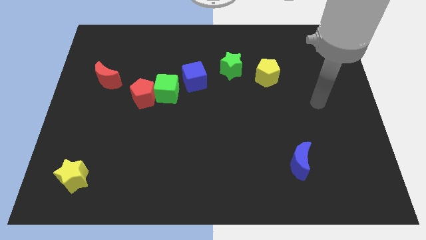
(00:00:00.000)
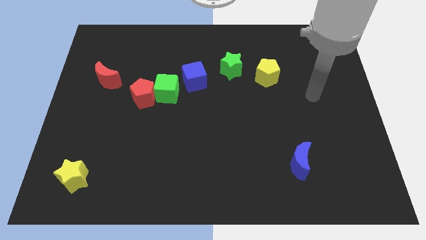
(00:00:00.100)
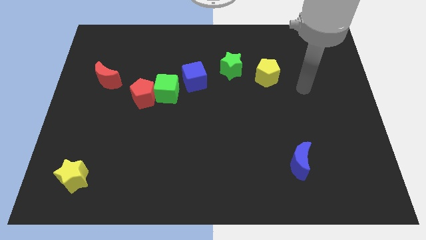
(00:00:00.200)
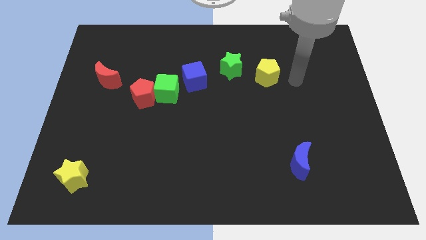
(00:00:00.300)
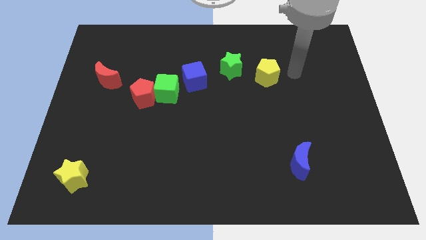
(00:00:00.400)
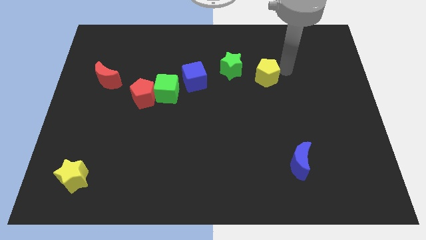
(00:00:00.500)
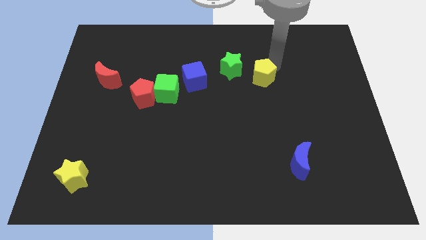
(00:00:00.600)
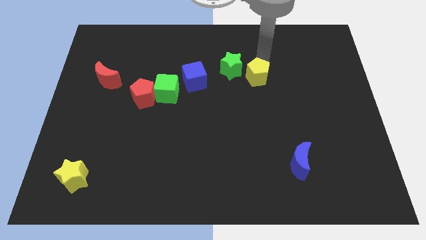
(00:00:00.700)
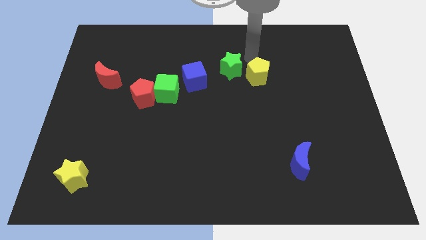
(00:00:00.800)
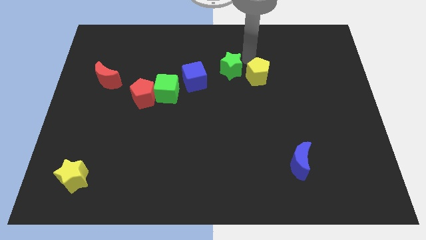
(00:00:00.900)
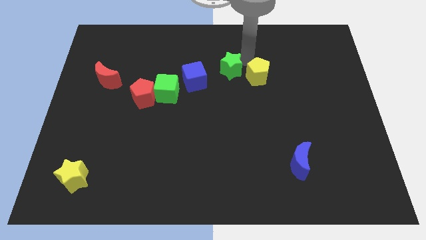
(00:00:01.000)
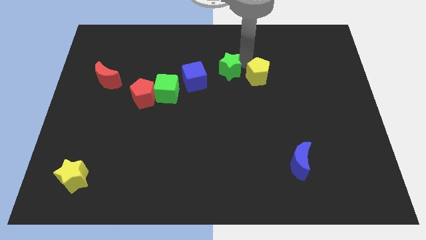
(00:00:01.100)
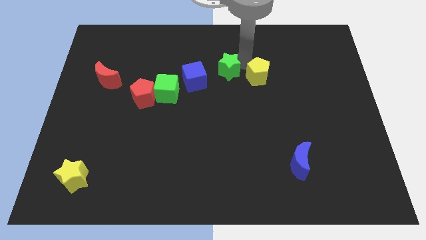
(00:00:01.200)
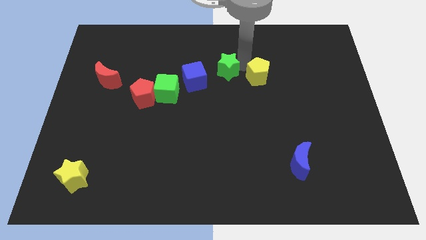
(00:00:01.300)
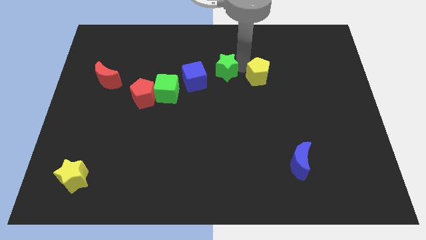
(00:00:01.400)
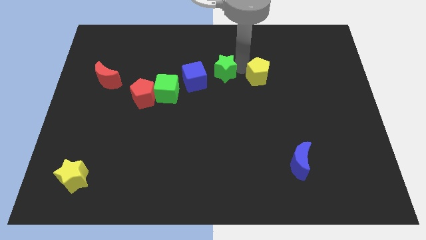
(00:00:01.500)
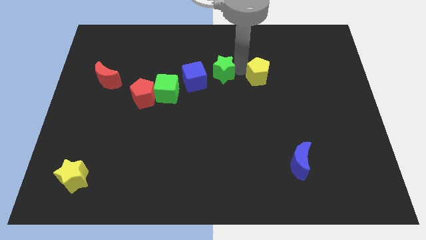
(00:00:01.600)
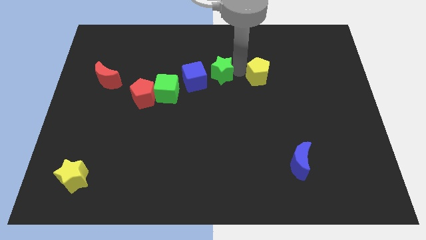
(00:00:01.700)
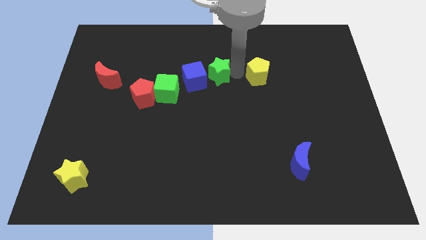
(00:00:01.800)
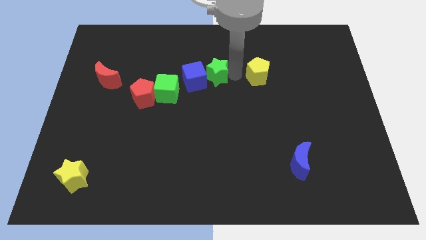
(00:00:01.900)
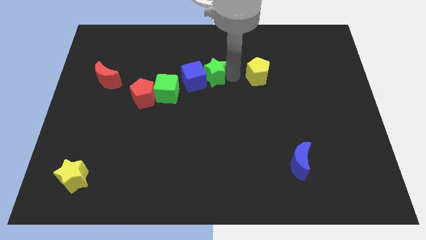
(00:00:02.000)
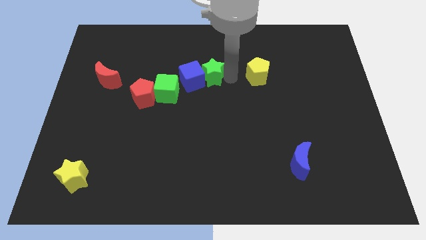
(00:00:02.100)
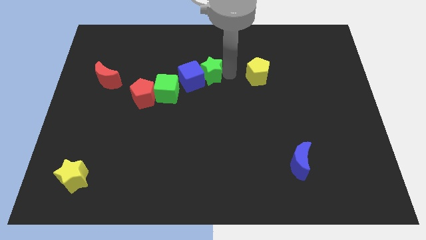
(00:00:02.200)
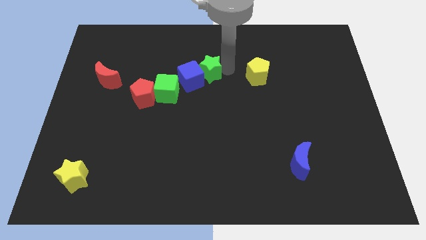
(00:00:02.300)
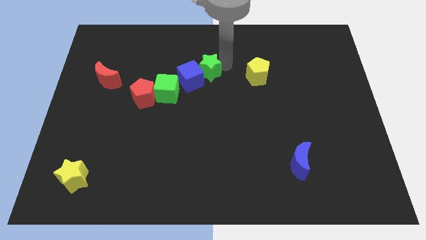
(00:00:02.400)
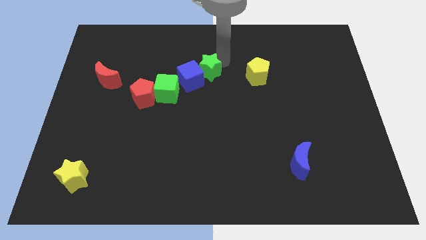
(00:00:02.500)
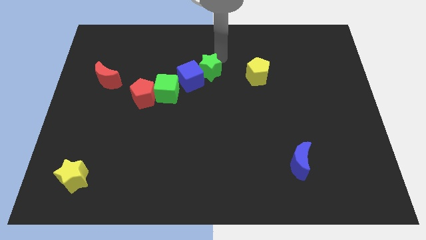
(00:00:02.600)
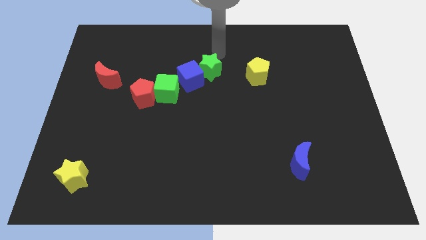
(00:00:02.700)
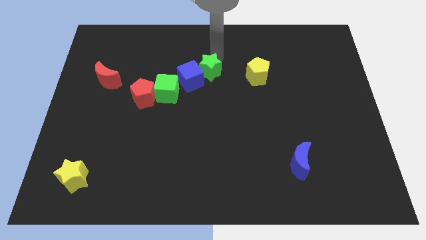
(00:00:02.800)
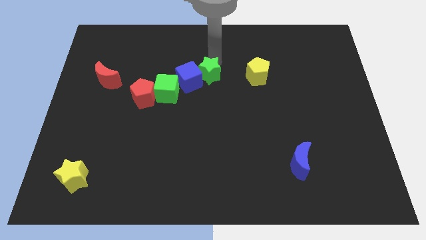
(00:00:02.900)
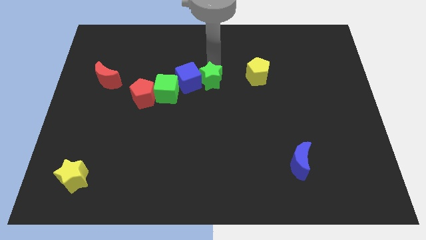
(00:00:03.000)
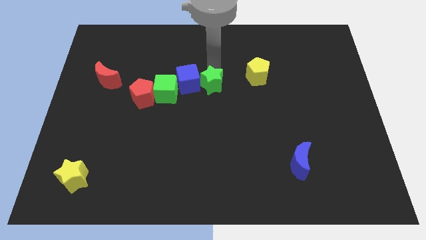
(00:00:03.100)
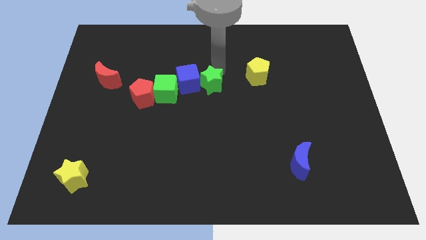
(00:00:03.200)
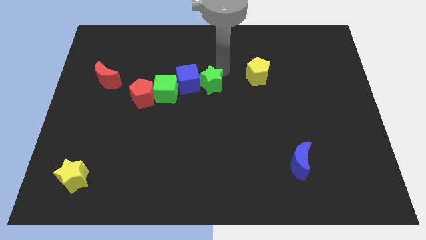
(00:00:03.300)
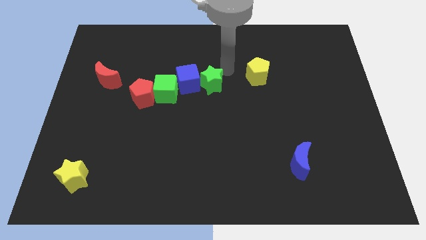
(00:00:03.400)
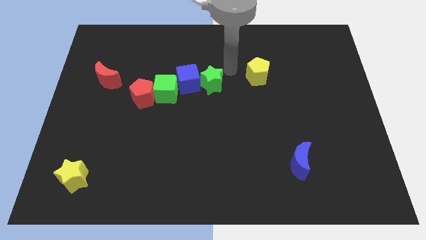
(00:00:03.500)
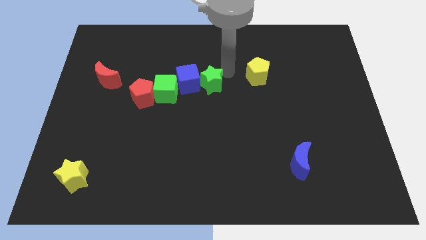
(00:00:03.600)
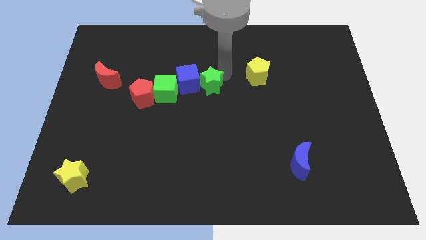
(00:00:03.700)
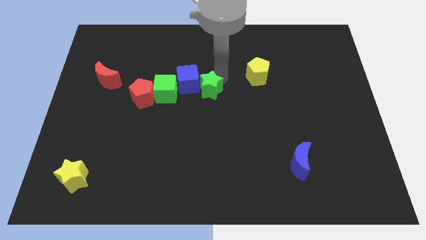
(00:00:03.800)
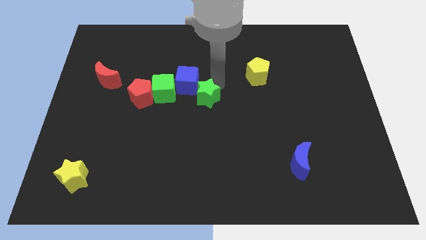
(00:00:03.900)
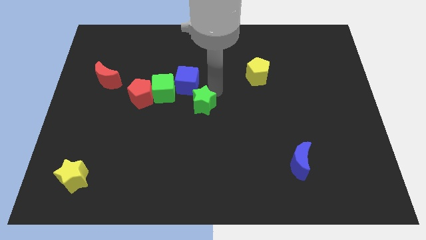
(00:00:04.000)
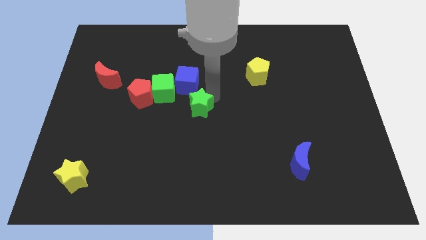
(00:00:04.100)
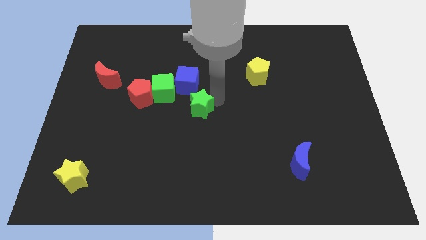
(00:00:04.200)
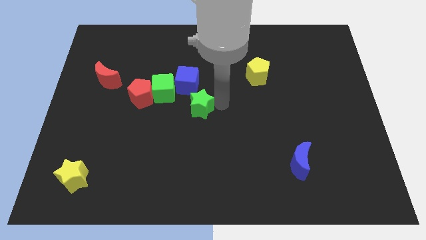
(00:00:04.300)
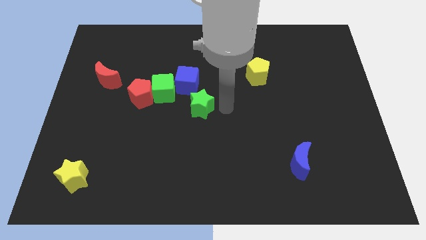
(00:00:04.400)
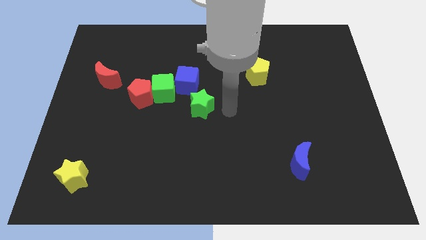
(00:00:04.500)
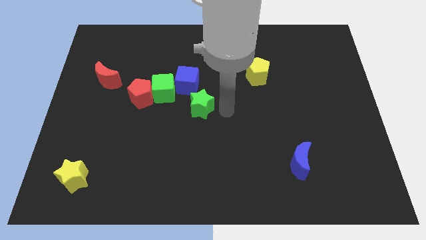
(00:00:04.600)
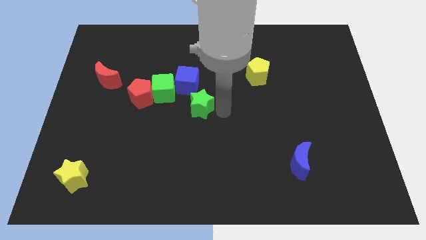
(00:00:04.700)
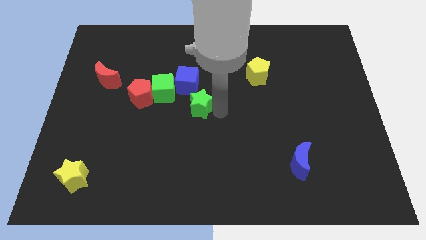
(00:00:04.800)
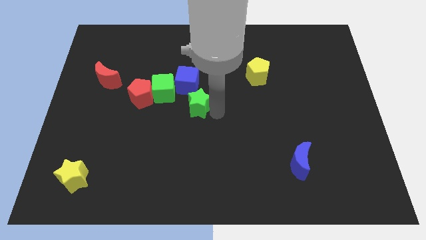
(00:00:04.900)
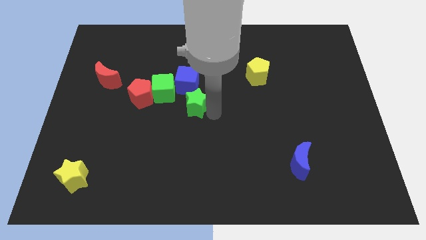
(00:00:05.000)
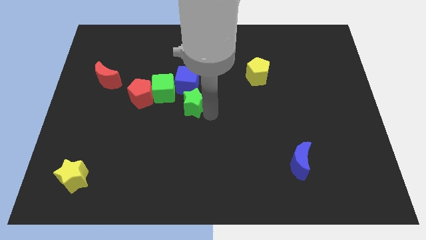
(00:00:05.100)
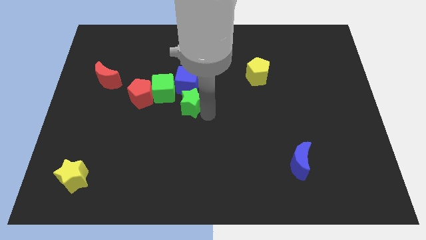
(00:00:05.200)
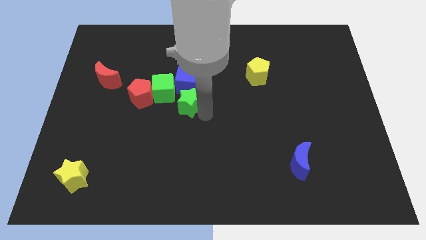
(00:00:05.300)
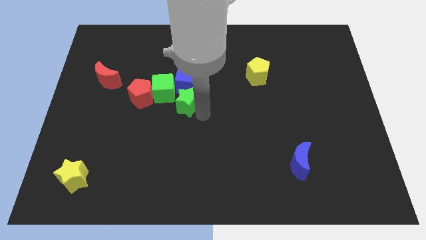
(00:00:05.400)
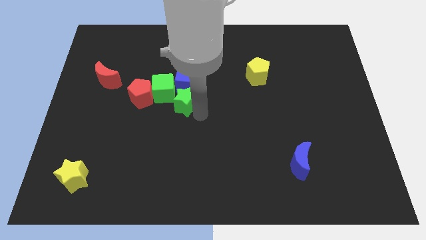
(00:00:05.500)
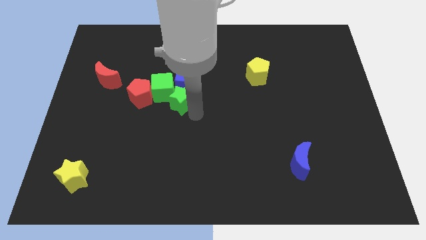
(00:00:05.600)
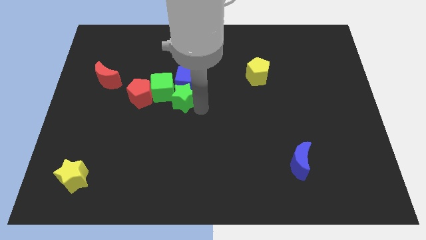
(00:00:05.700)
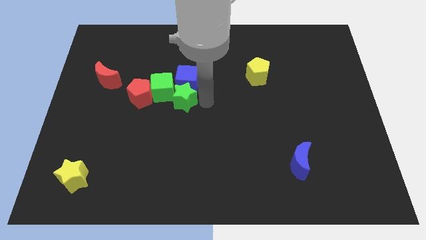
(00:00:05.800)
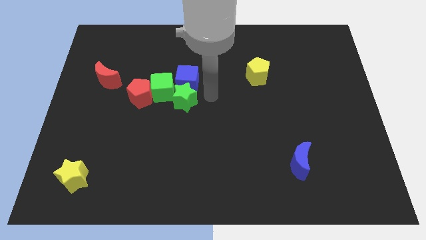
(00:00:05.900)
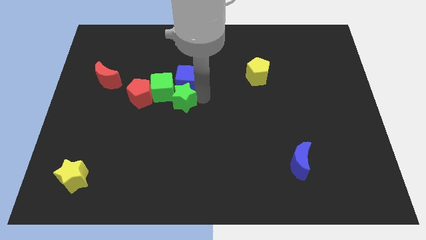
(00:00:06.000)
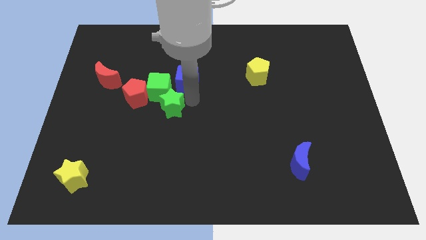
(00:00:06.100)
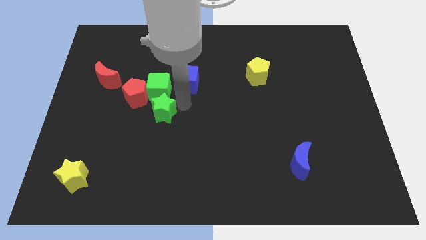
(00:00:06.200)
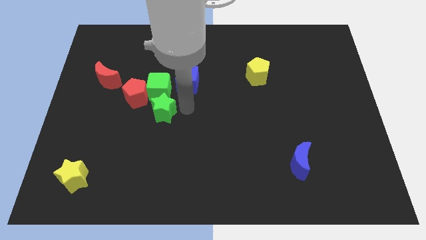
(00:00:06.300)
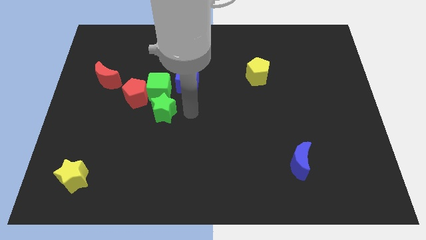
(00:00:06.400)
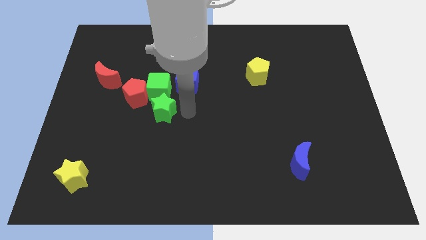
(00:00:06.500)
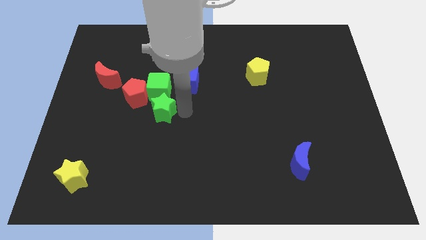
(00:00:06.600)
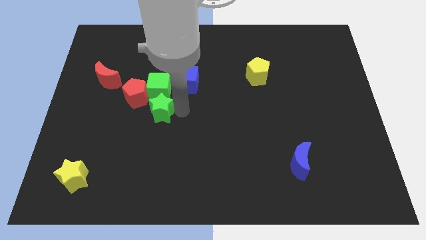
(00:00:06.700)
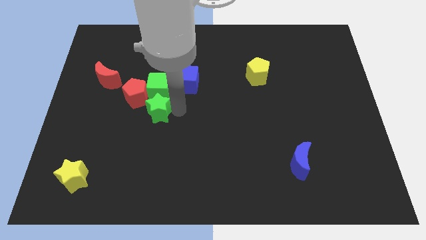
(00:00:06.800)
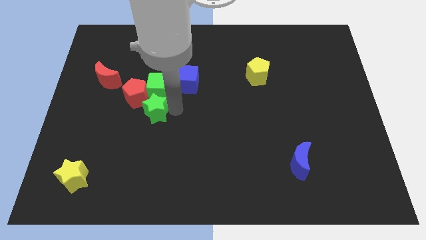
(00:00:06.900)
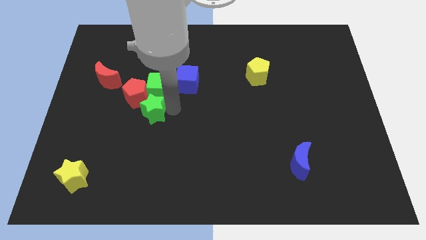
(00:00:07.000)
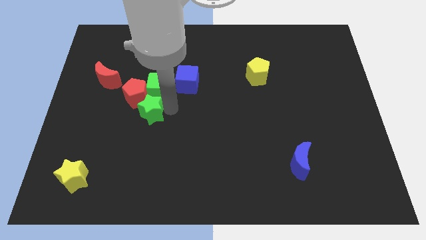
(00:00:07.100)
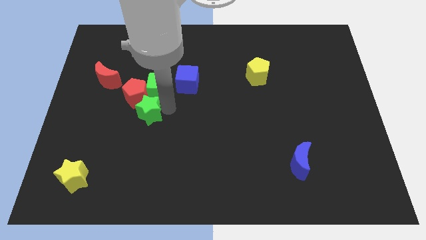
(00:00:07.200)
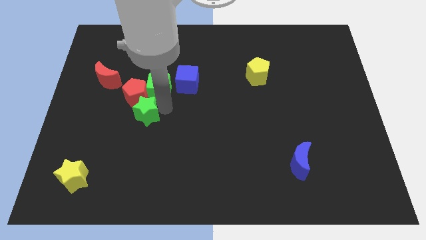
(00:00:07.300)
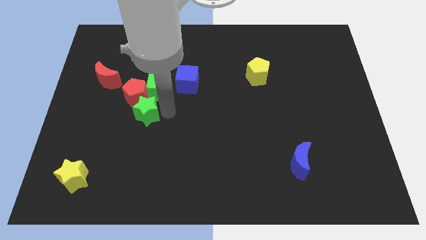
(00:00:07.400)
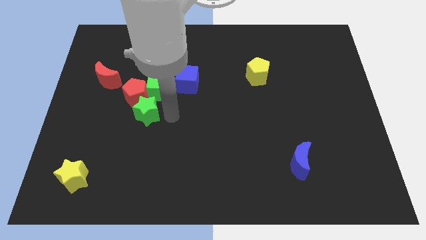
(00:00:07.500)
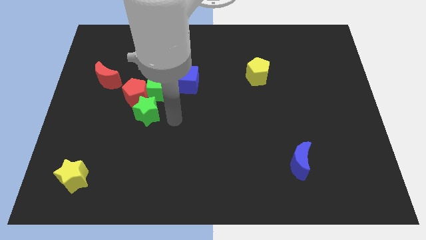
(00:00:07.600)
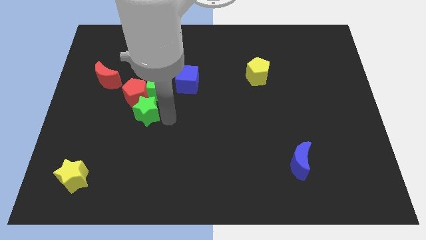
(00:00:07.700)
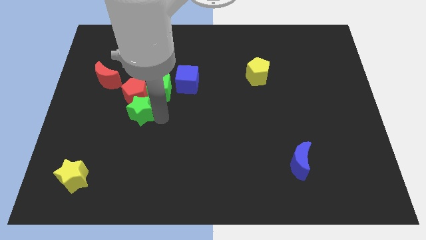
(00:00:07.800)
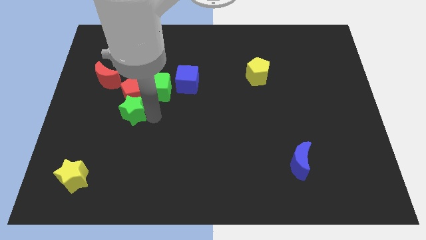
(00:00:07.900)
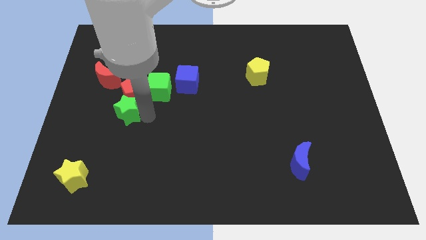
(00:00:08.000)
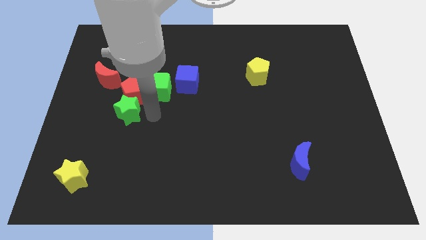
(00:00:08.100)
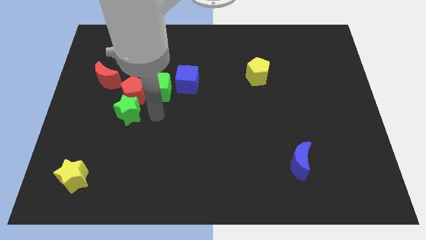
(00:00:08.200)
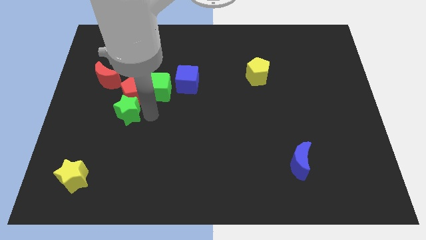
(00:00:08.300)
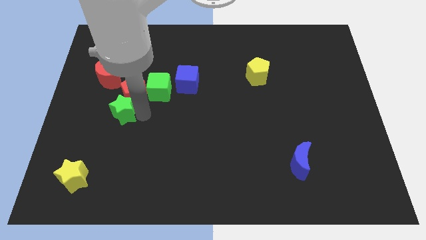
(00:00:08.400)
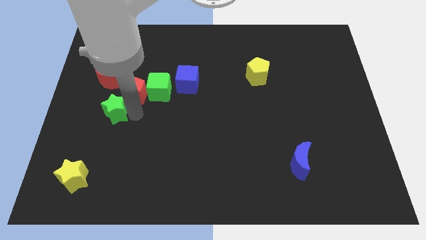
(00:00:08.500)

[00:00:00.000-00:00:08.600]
push the green star to the bottom of the red moon
